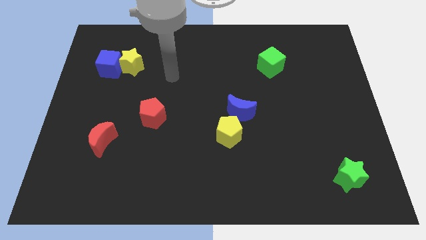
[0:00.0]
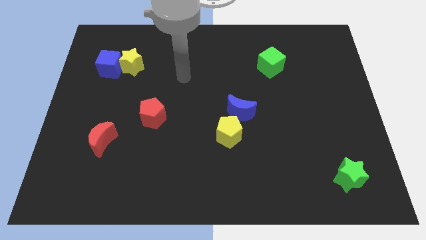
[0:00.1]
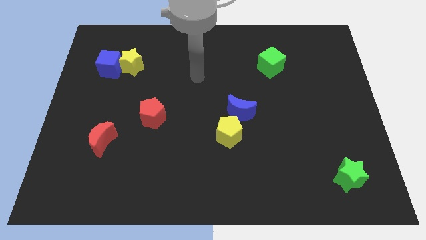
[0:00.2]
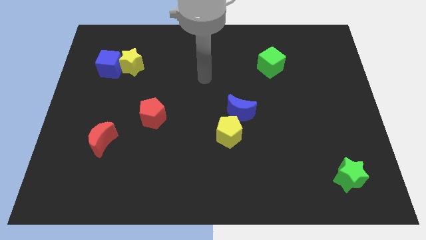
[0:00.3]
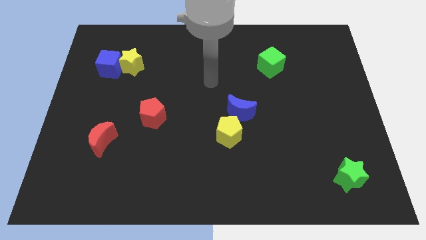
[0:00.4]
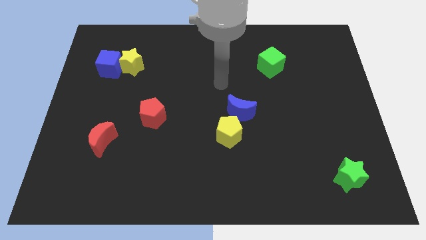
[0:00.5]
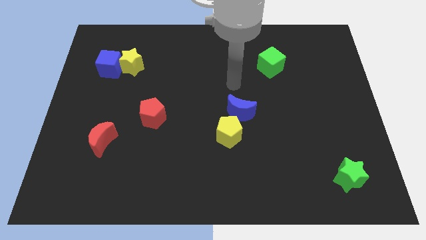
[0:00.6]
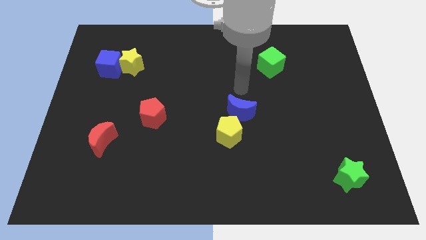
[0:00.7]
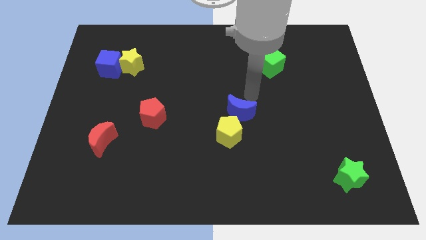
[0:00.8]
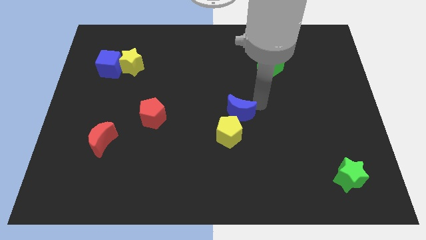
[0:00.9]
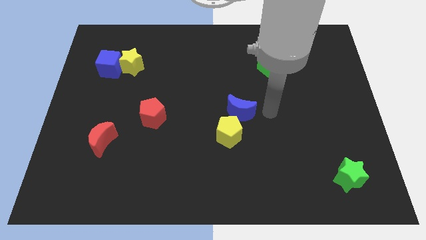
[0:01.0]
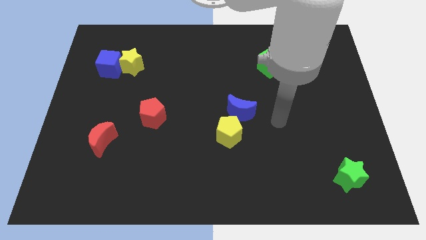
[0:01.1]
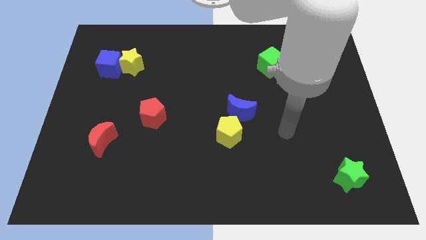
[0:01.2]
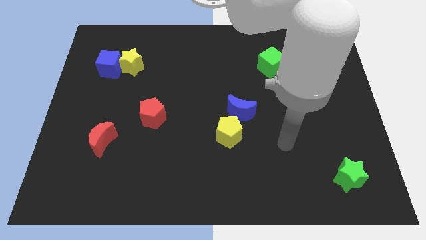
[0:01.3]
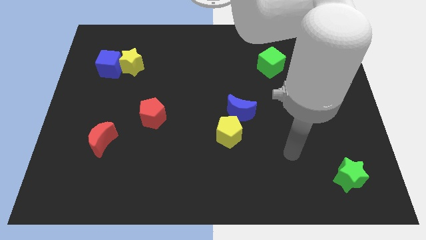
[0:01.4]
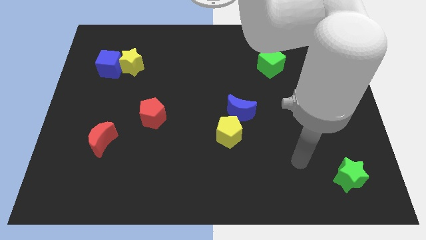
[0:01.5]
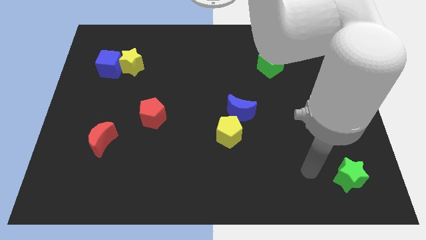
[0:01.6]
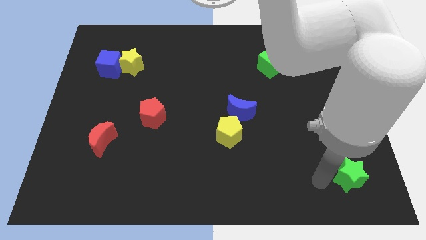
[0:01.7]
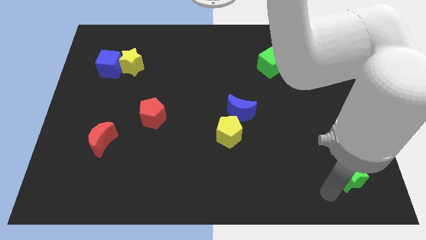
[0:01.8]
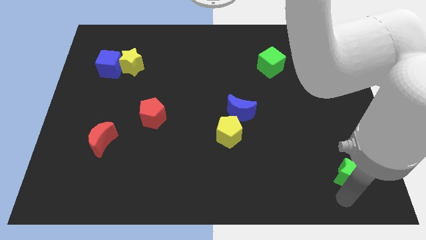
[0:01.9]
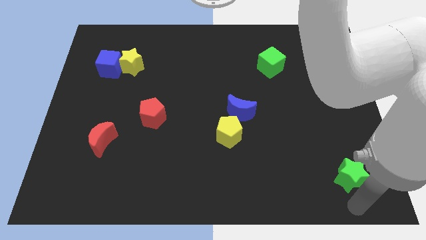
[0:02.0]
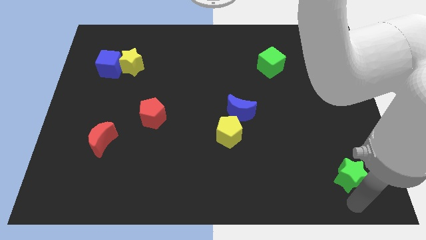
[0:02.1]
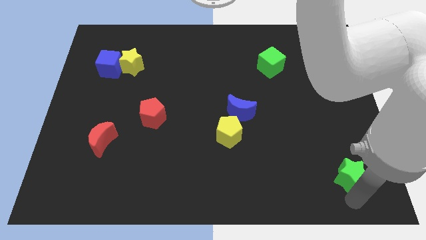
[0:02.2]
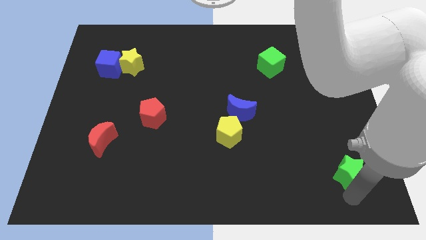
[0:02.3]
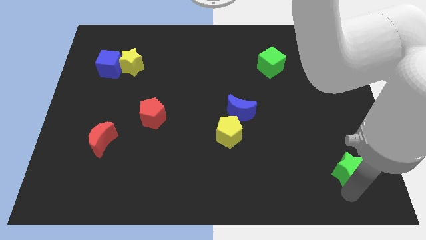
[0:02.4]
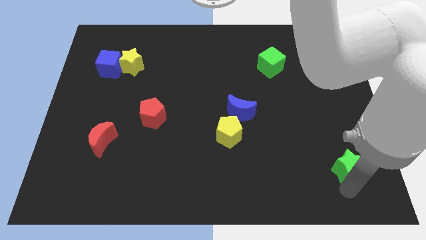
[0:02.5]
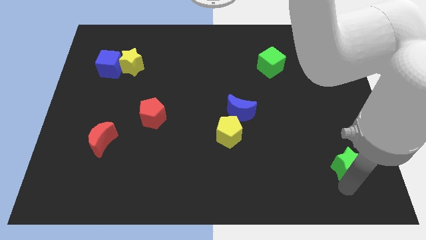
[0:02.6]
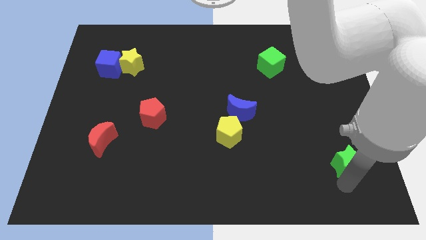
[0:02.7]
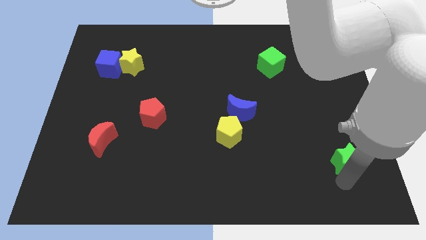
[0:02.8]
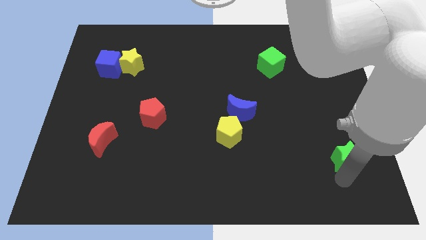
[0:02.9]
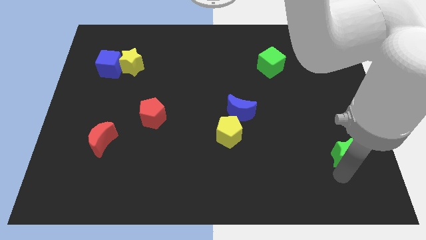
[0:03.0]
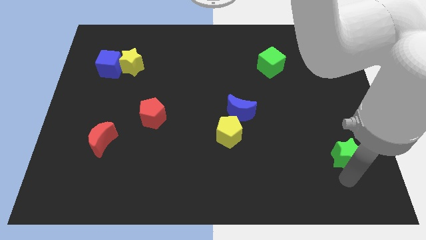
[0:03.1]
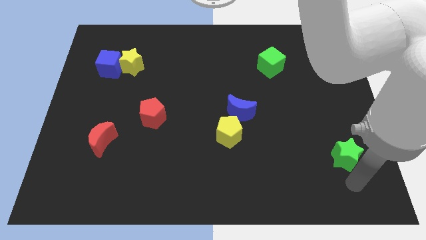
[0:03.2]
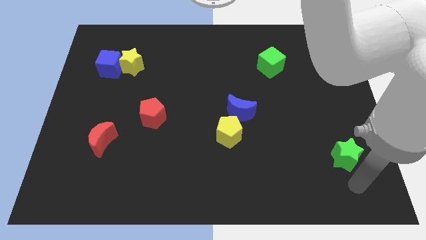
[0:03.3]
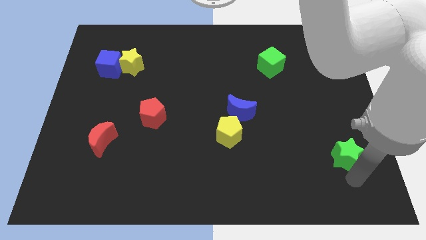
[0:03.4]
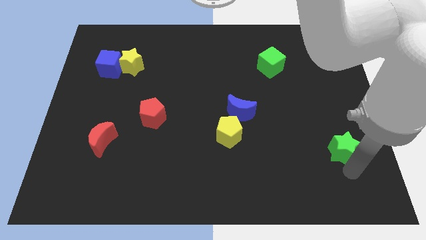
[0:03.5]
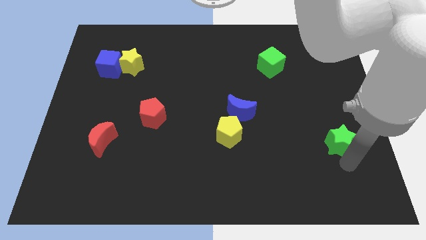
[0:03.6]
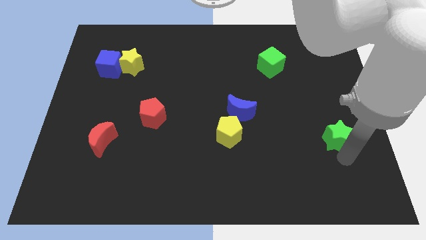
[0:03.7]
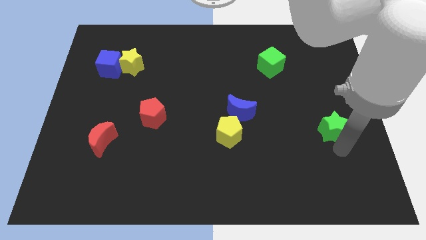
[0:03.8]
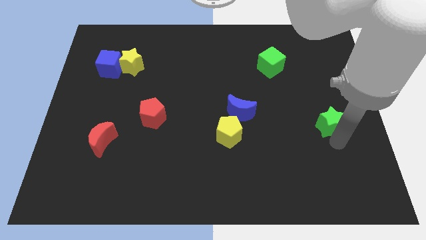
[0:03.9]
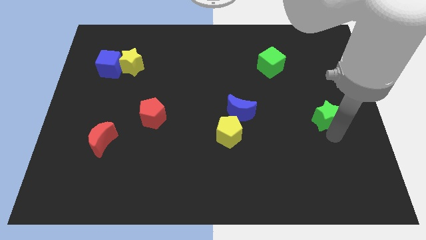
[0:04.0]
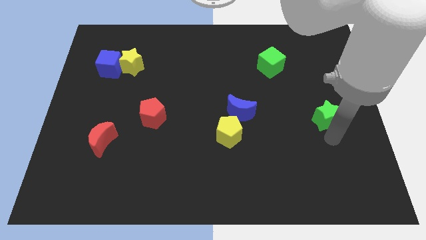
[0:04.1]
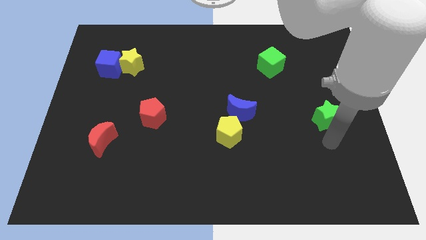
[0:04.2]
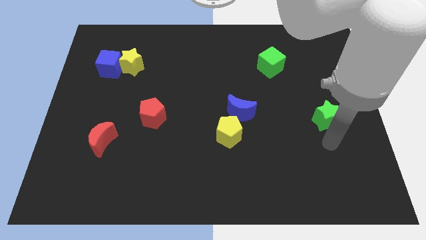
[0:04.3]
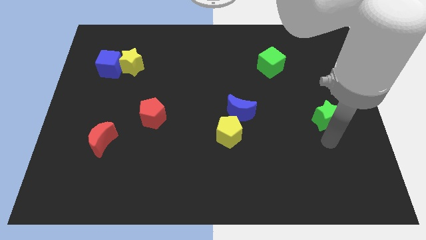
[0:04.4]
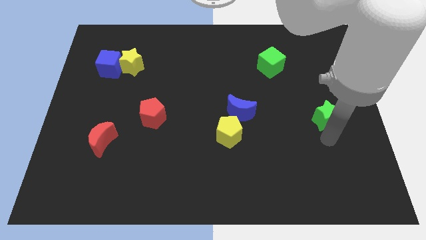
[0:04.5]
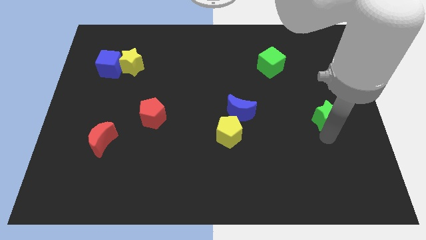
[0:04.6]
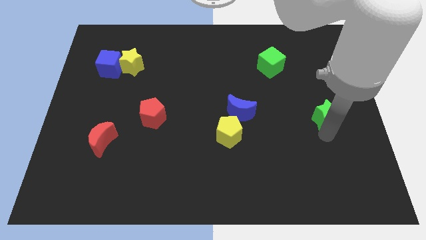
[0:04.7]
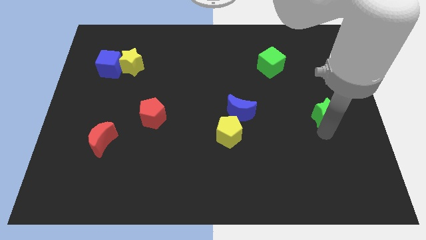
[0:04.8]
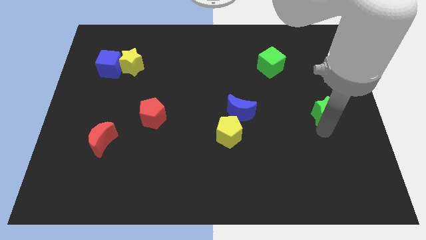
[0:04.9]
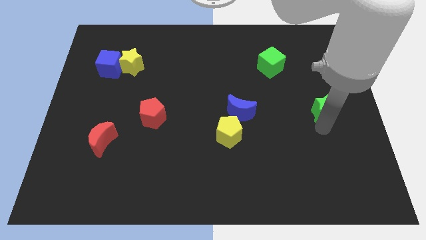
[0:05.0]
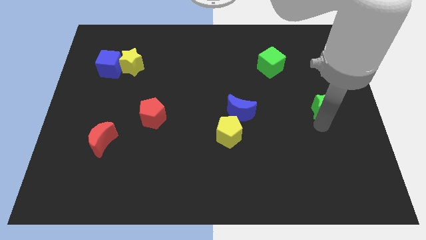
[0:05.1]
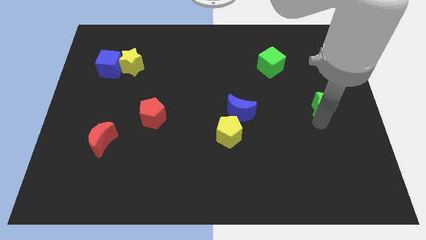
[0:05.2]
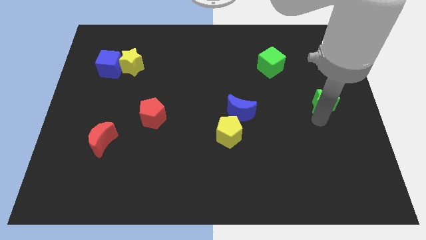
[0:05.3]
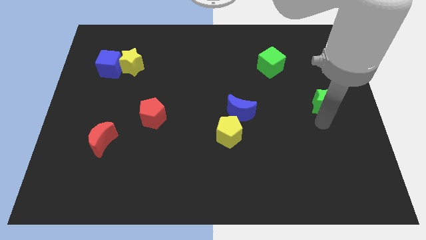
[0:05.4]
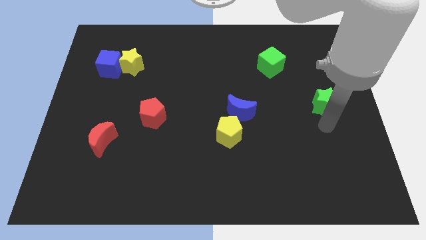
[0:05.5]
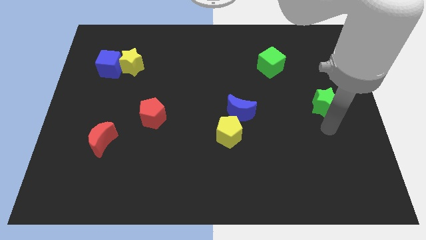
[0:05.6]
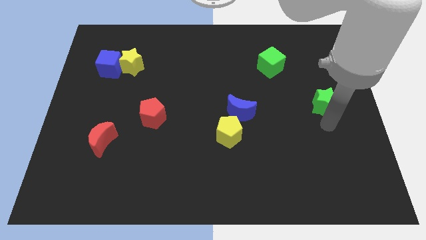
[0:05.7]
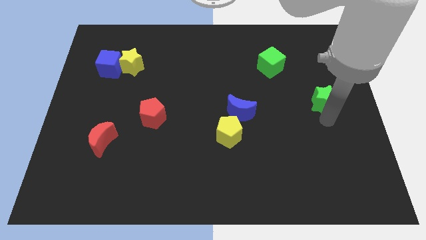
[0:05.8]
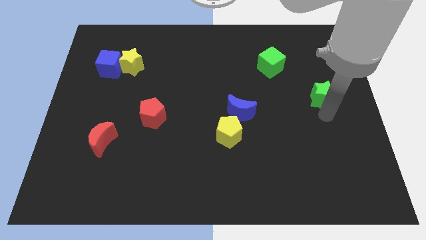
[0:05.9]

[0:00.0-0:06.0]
push the green star upwards

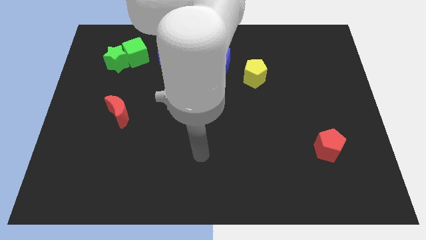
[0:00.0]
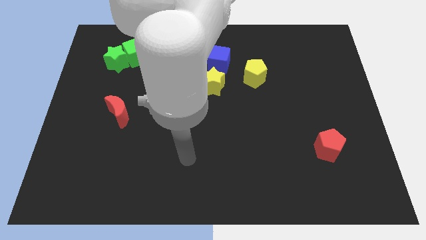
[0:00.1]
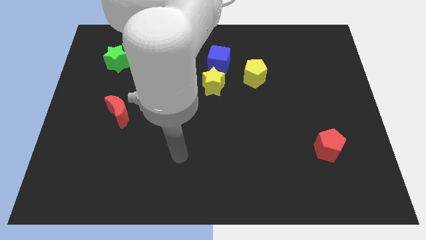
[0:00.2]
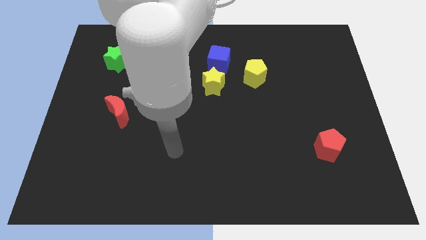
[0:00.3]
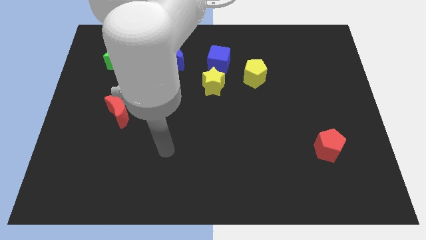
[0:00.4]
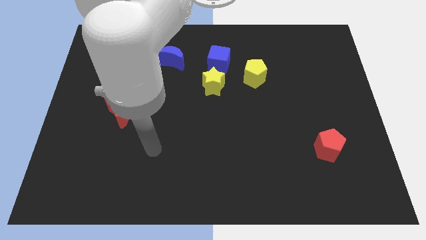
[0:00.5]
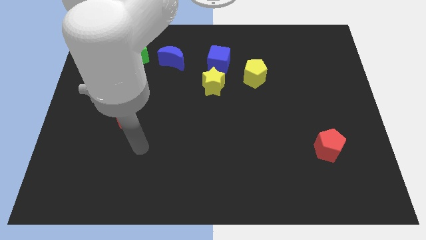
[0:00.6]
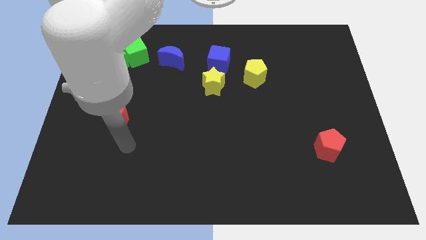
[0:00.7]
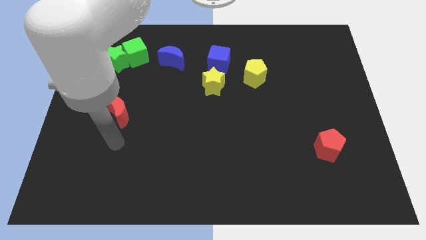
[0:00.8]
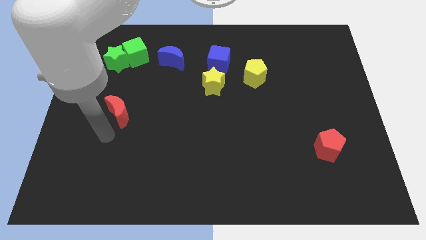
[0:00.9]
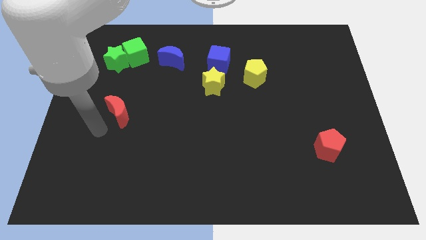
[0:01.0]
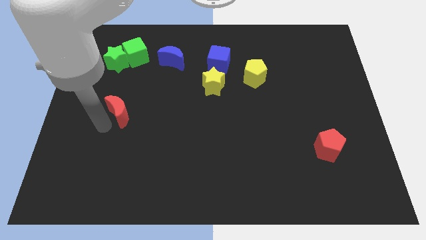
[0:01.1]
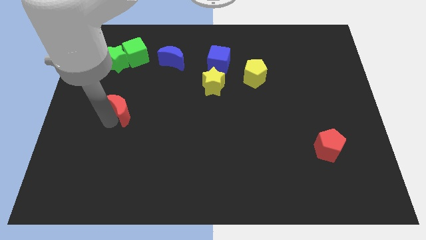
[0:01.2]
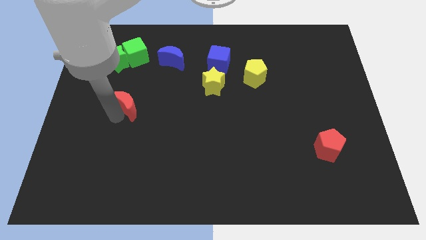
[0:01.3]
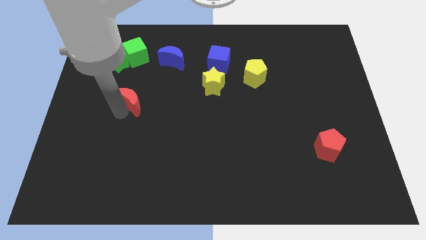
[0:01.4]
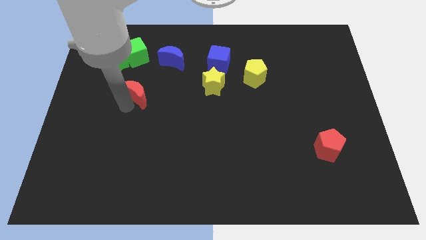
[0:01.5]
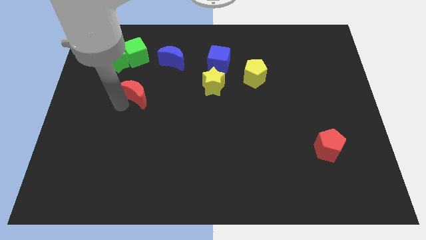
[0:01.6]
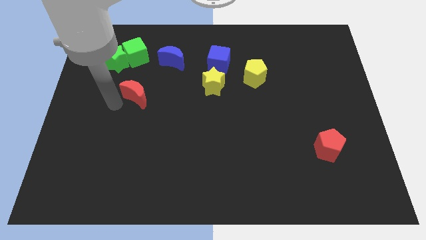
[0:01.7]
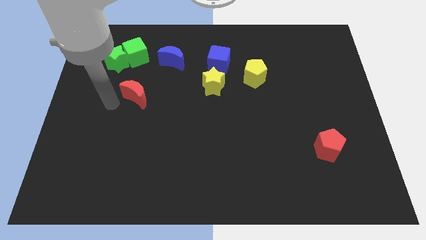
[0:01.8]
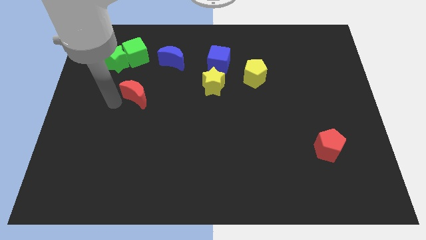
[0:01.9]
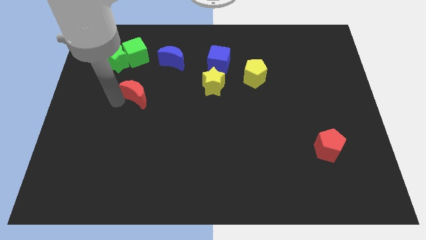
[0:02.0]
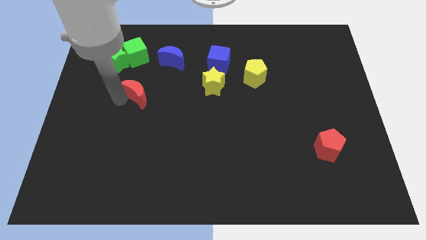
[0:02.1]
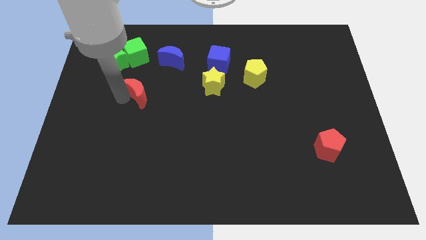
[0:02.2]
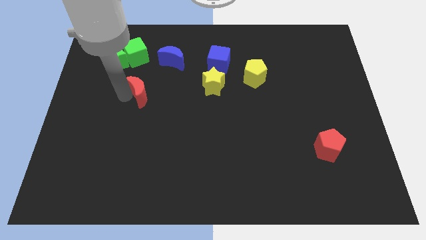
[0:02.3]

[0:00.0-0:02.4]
slightly move the red moon diagonally upwards and right
